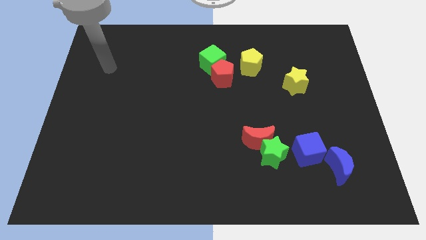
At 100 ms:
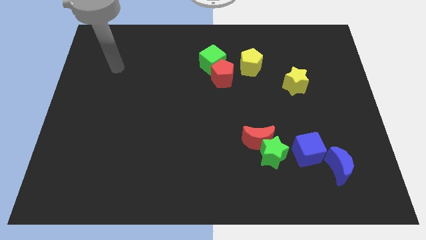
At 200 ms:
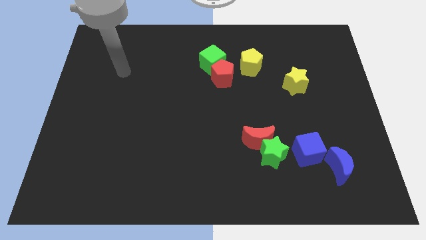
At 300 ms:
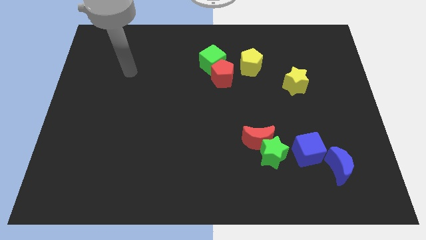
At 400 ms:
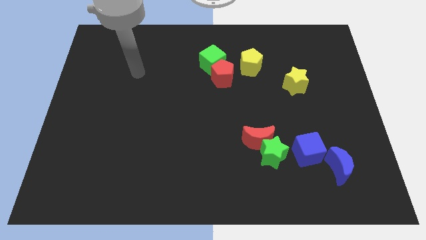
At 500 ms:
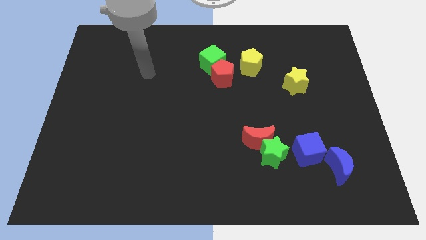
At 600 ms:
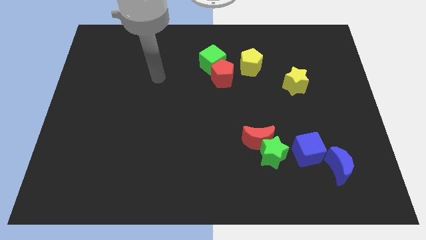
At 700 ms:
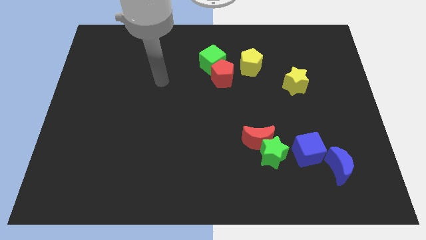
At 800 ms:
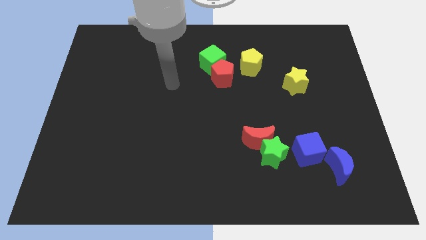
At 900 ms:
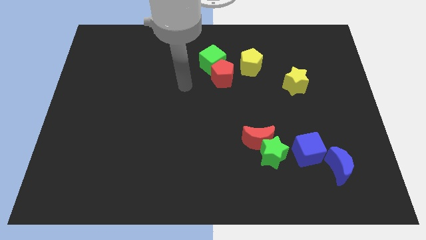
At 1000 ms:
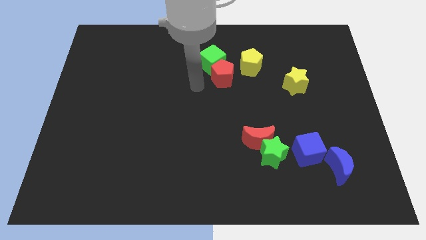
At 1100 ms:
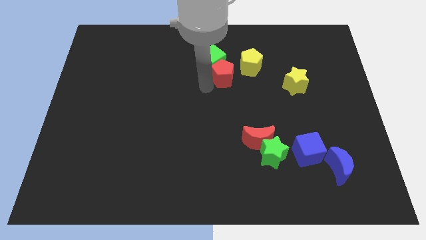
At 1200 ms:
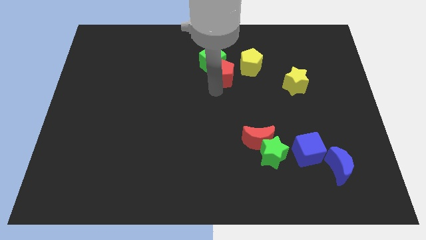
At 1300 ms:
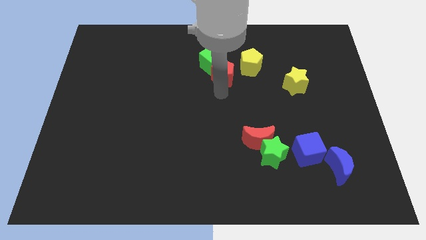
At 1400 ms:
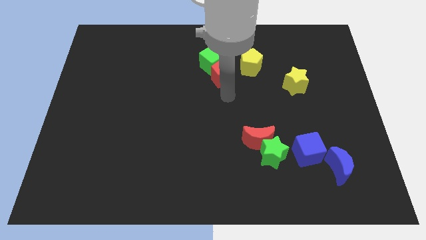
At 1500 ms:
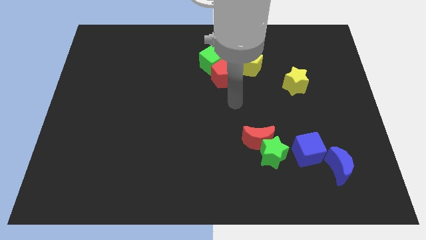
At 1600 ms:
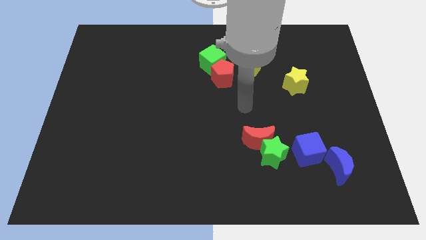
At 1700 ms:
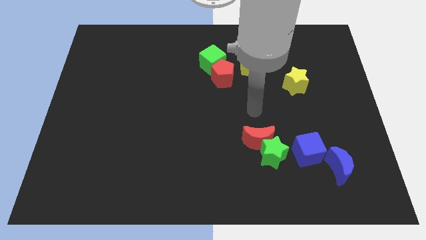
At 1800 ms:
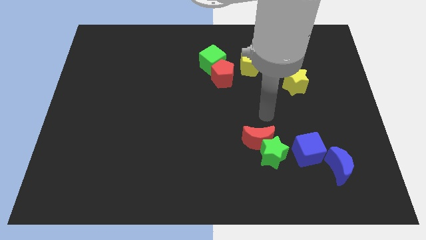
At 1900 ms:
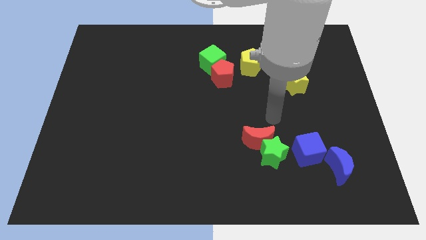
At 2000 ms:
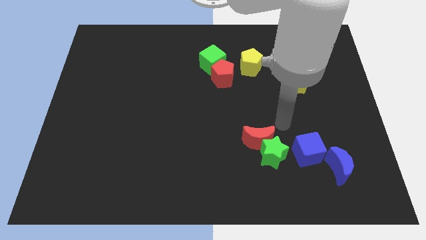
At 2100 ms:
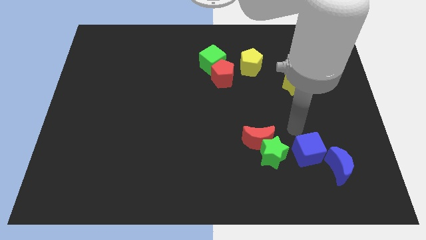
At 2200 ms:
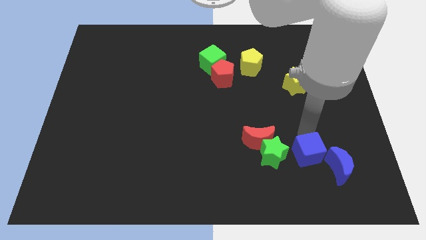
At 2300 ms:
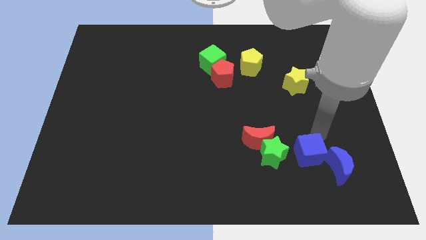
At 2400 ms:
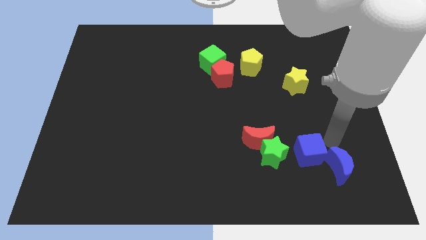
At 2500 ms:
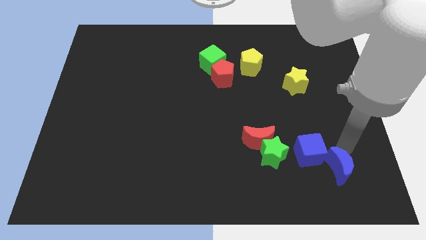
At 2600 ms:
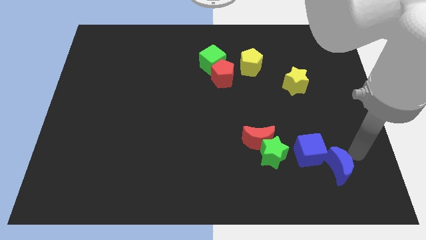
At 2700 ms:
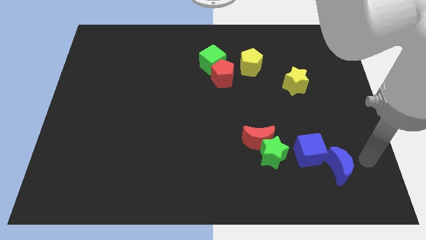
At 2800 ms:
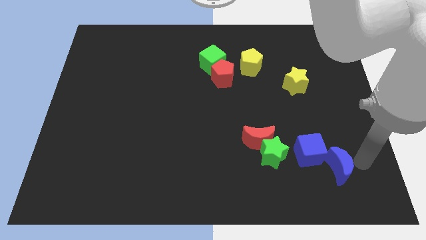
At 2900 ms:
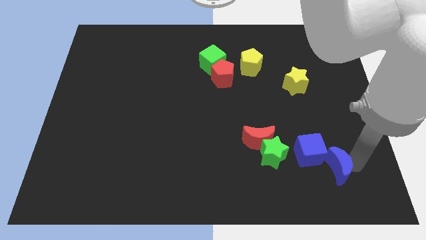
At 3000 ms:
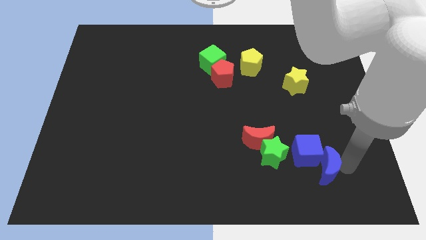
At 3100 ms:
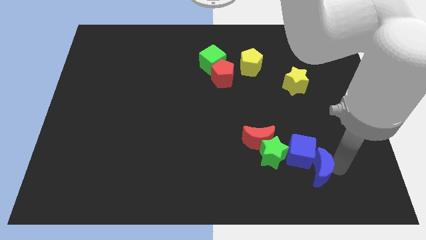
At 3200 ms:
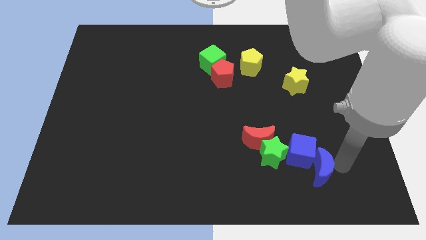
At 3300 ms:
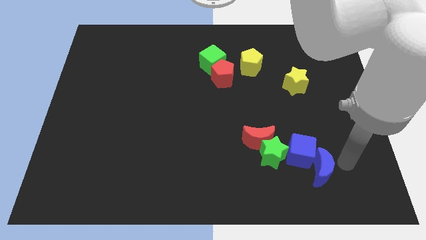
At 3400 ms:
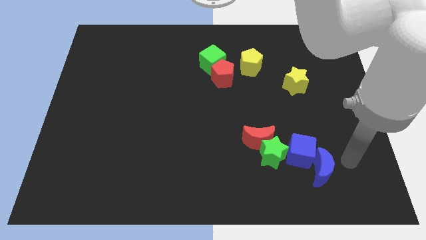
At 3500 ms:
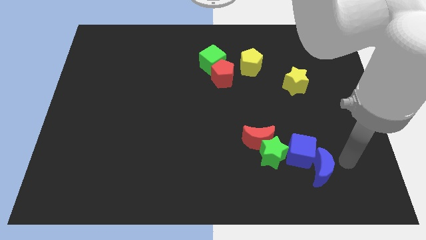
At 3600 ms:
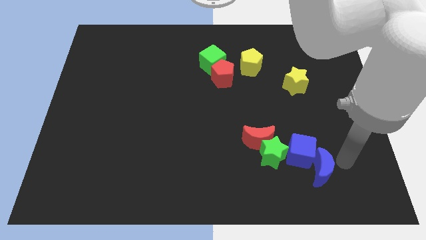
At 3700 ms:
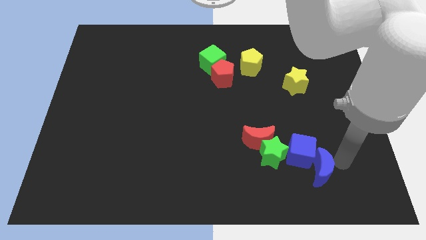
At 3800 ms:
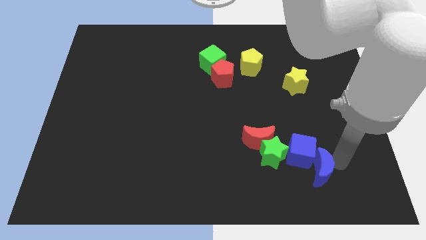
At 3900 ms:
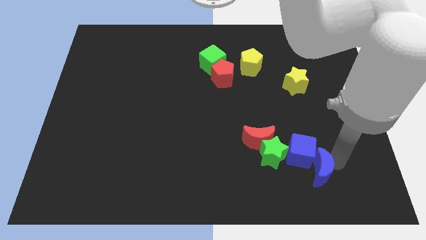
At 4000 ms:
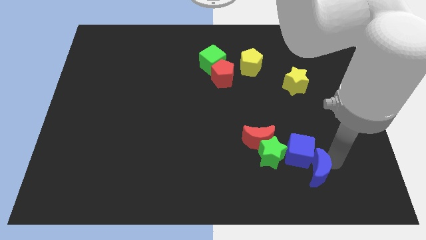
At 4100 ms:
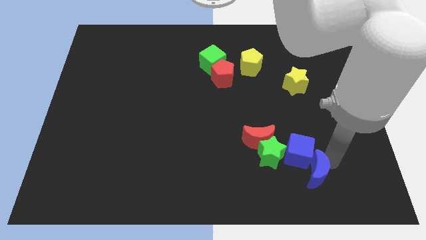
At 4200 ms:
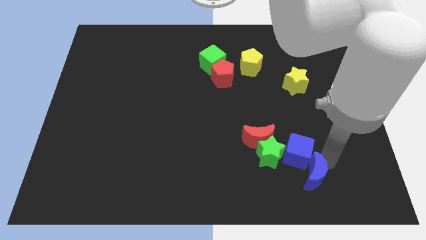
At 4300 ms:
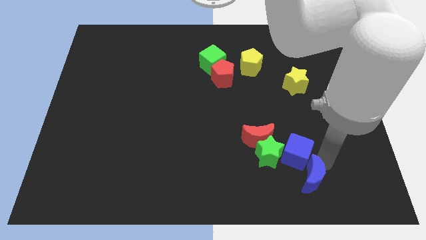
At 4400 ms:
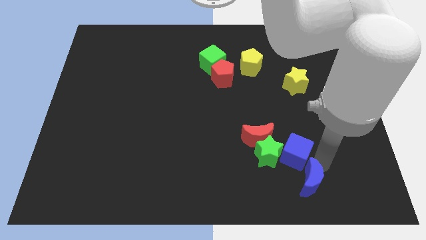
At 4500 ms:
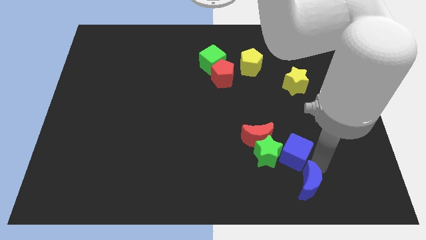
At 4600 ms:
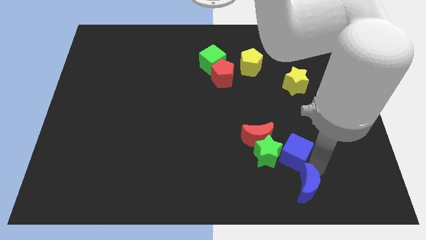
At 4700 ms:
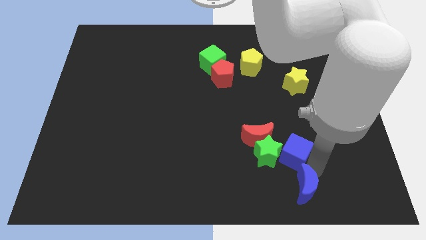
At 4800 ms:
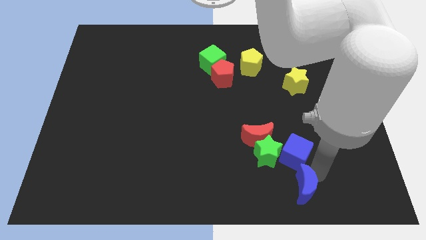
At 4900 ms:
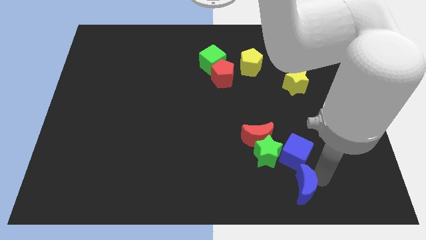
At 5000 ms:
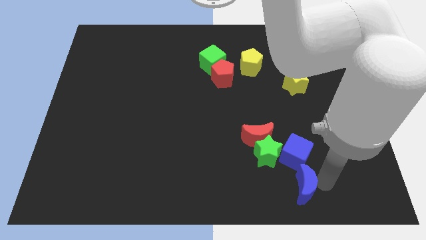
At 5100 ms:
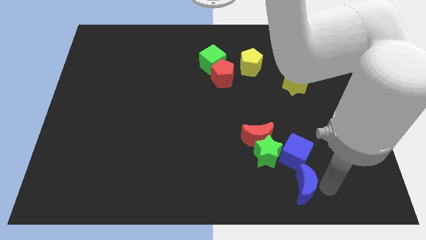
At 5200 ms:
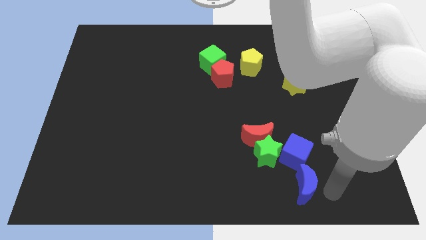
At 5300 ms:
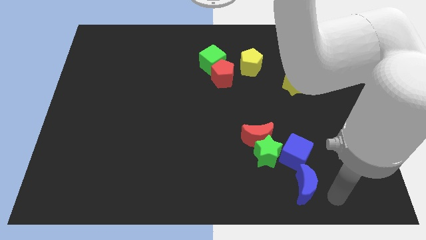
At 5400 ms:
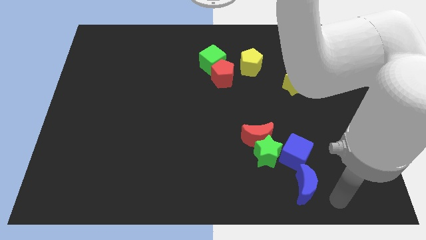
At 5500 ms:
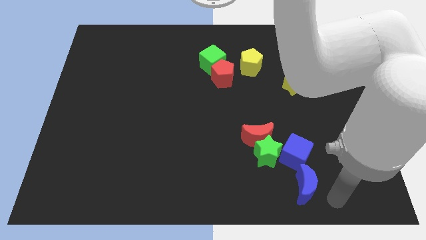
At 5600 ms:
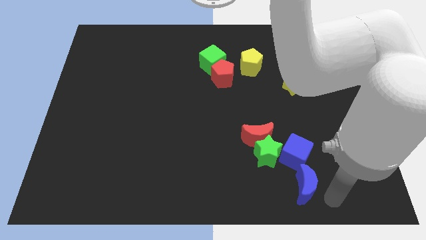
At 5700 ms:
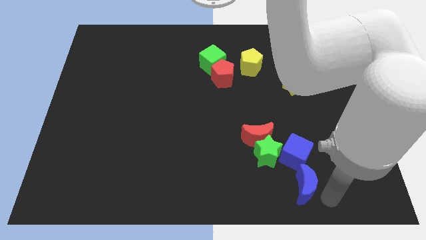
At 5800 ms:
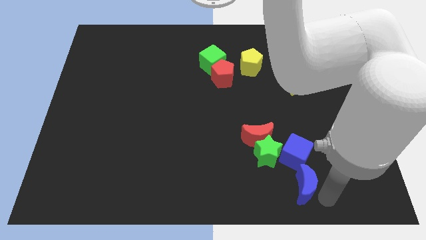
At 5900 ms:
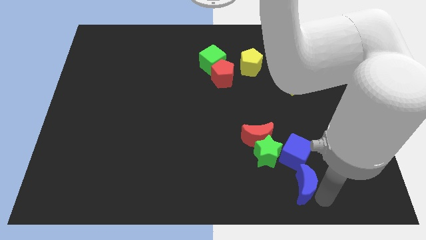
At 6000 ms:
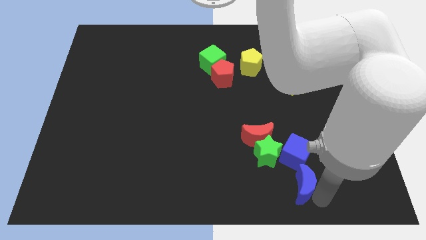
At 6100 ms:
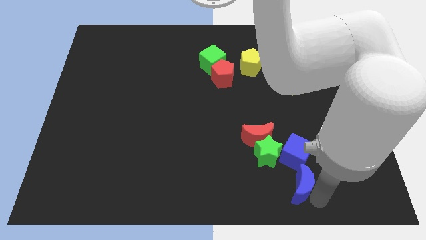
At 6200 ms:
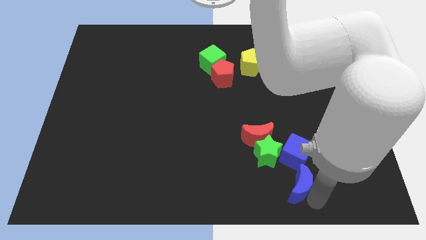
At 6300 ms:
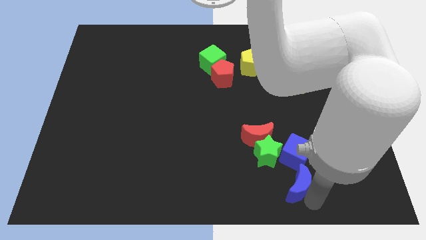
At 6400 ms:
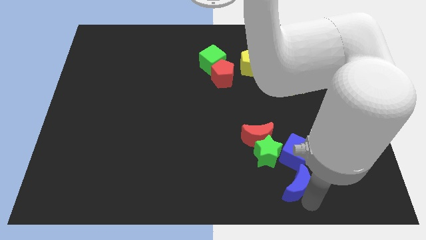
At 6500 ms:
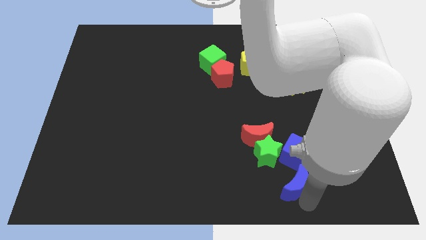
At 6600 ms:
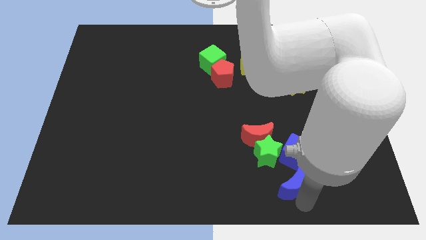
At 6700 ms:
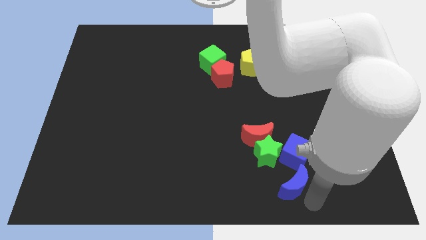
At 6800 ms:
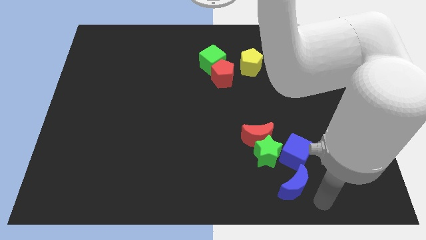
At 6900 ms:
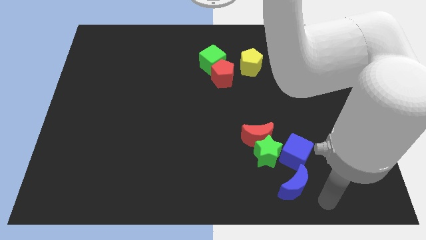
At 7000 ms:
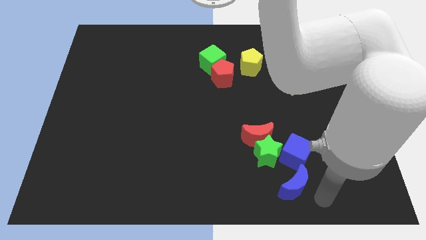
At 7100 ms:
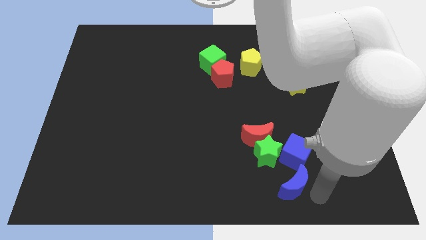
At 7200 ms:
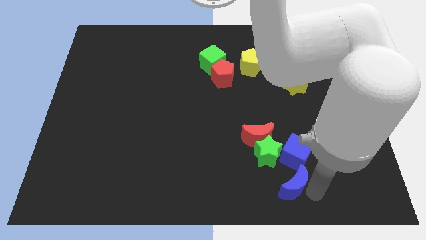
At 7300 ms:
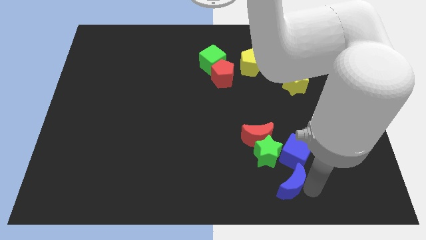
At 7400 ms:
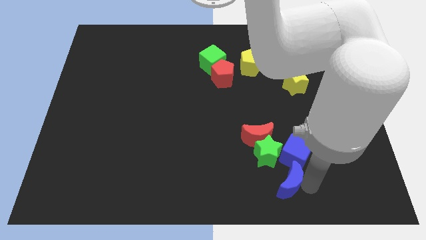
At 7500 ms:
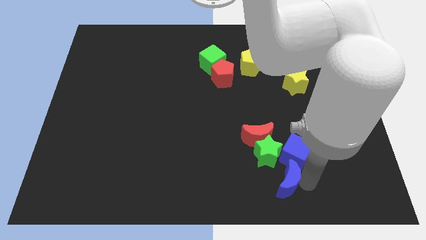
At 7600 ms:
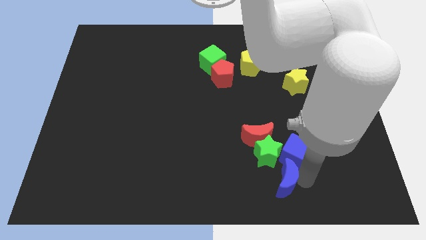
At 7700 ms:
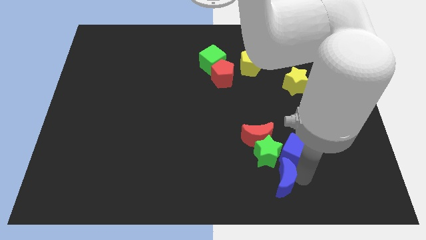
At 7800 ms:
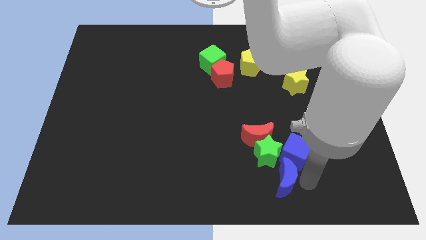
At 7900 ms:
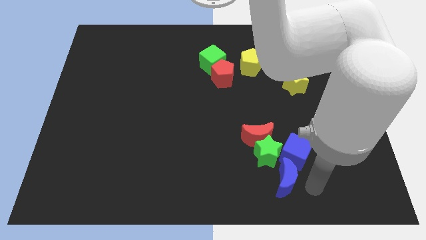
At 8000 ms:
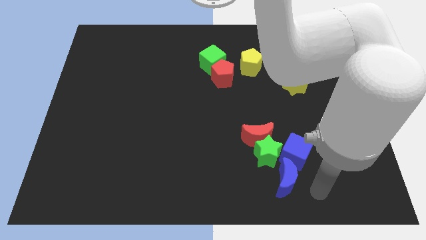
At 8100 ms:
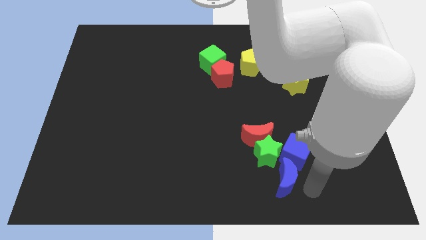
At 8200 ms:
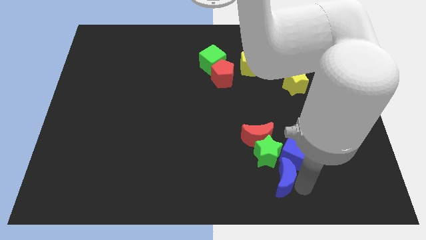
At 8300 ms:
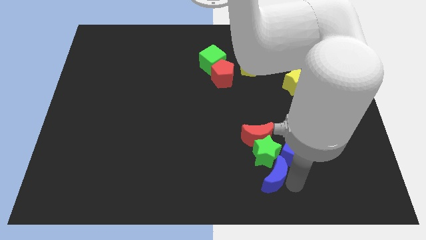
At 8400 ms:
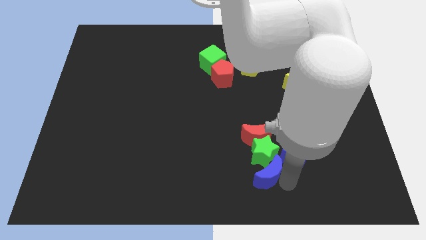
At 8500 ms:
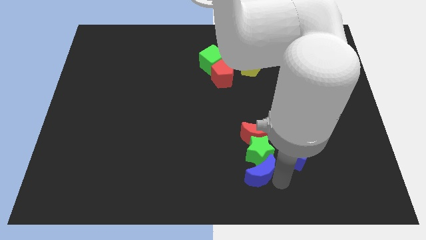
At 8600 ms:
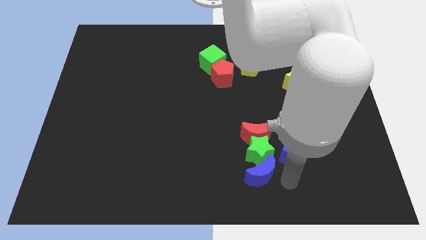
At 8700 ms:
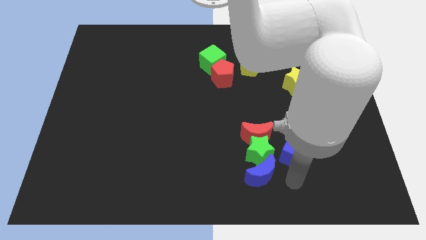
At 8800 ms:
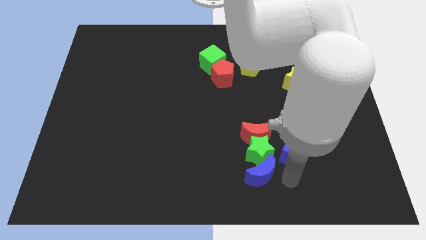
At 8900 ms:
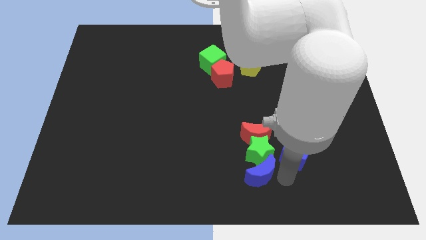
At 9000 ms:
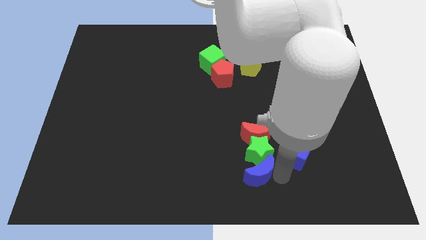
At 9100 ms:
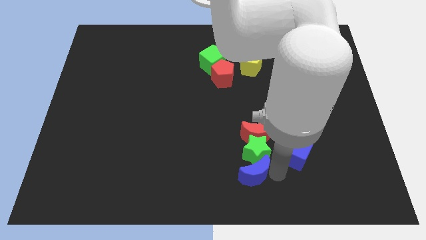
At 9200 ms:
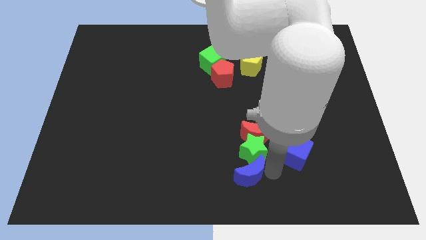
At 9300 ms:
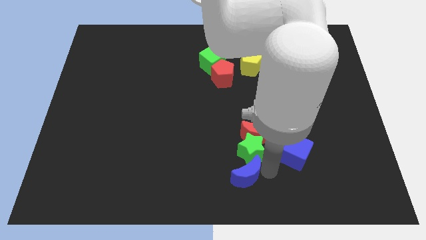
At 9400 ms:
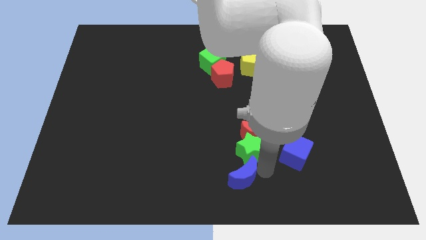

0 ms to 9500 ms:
slide the blue moon to the left
